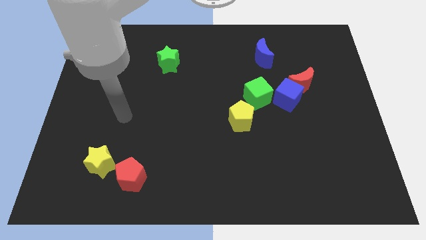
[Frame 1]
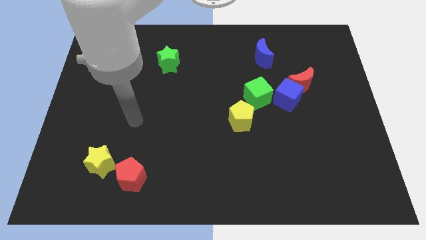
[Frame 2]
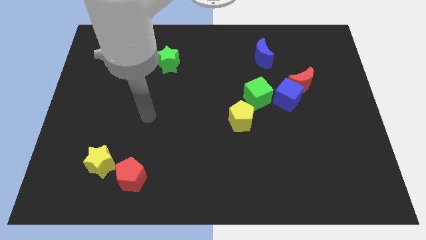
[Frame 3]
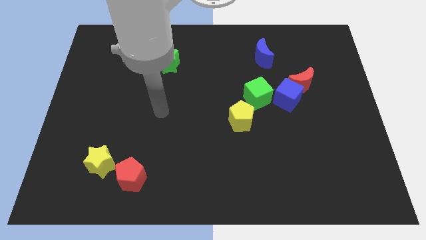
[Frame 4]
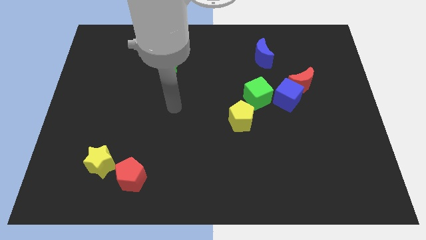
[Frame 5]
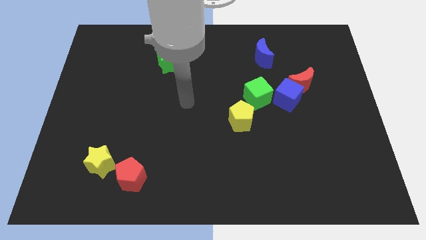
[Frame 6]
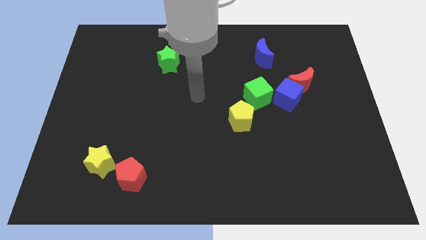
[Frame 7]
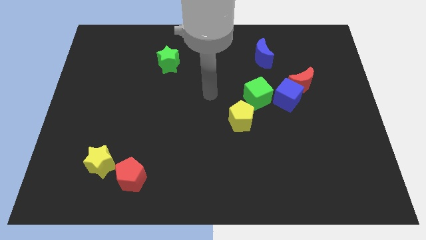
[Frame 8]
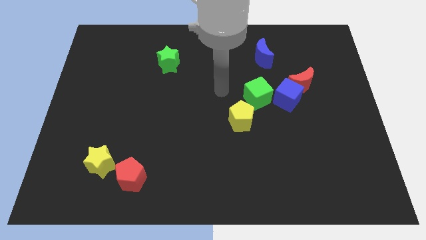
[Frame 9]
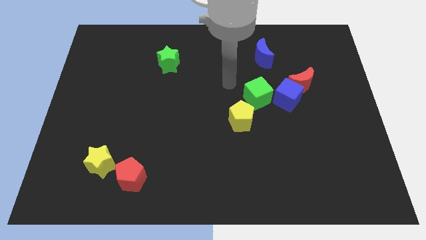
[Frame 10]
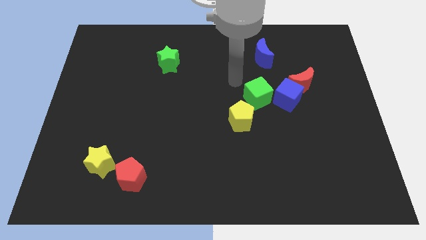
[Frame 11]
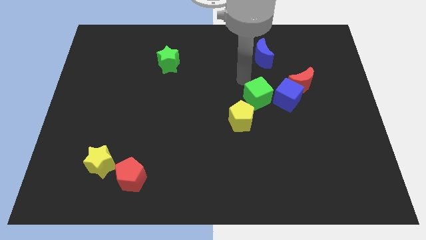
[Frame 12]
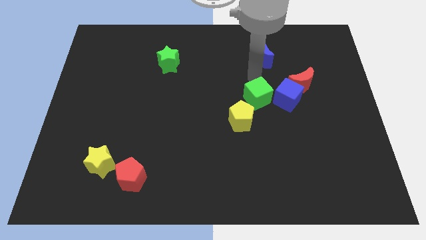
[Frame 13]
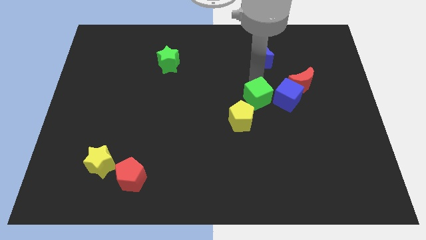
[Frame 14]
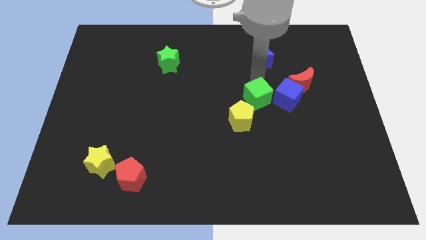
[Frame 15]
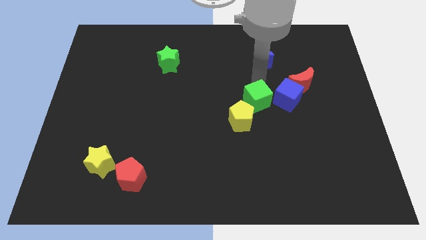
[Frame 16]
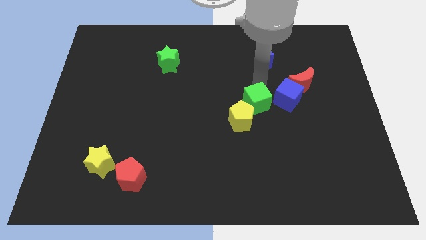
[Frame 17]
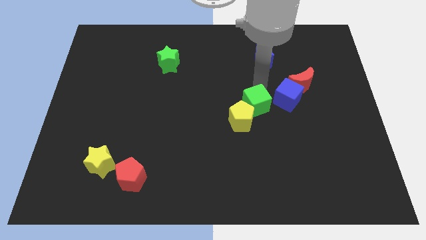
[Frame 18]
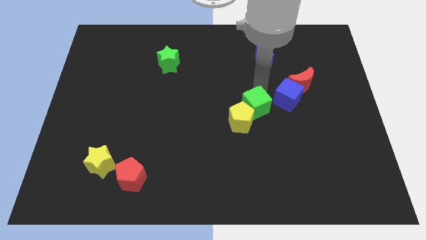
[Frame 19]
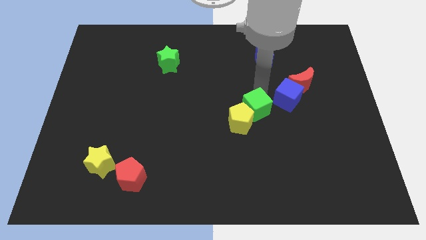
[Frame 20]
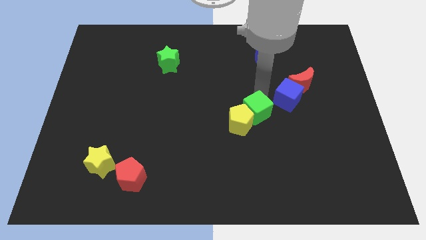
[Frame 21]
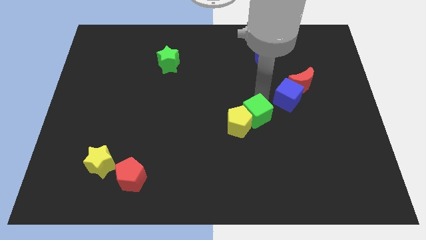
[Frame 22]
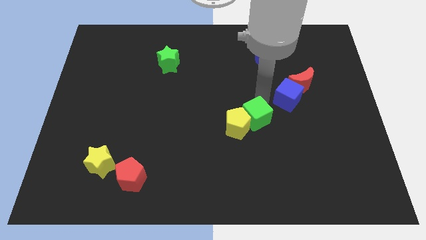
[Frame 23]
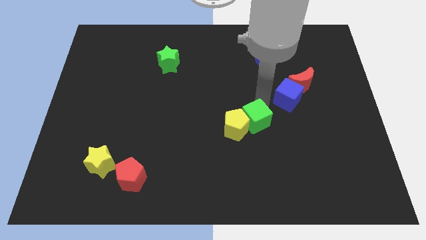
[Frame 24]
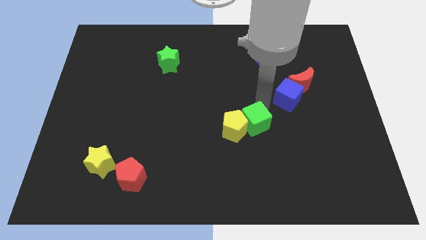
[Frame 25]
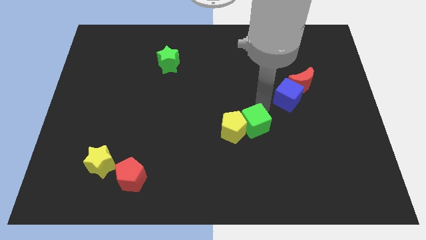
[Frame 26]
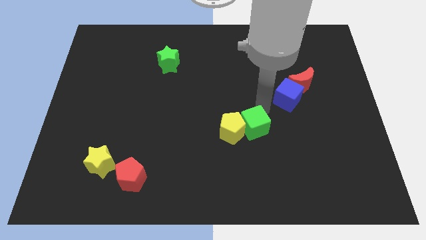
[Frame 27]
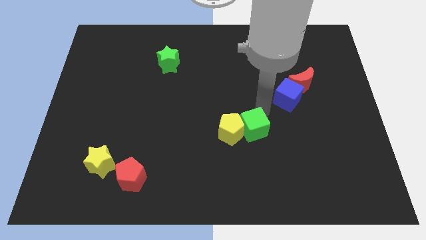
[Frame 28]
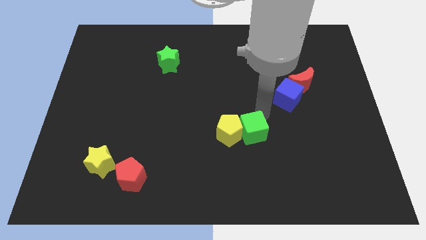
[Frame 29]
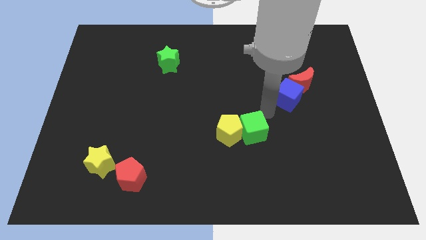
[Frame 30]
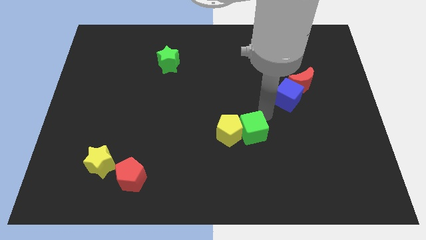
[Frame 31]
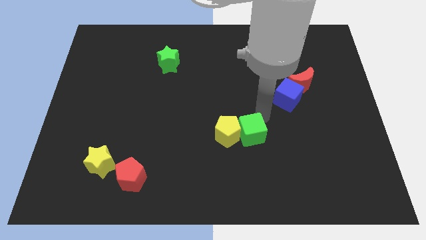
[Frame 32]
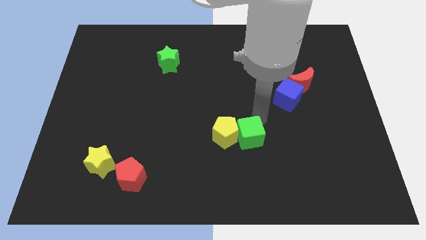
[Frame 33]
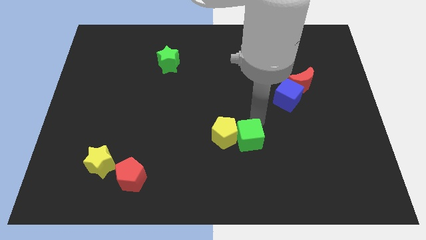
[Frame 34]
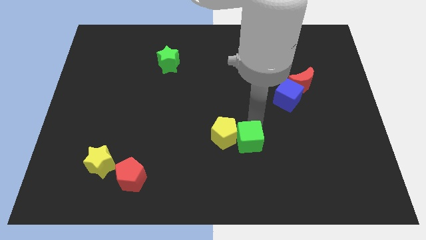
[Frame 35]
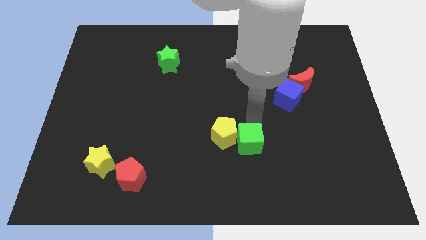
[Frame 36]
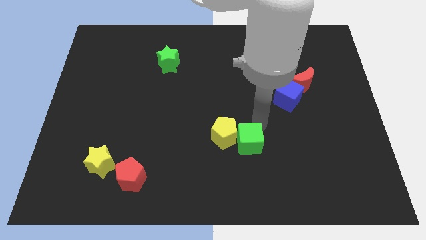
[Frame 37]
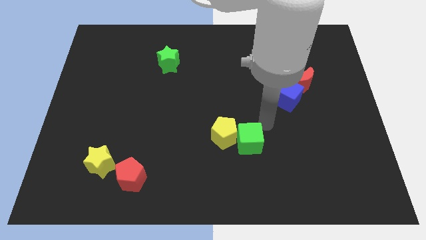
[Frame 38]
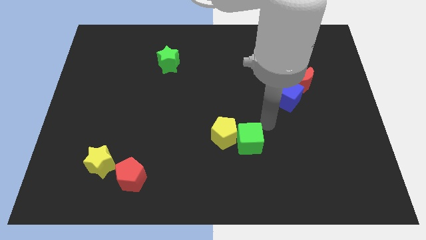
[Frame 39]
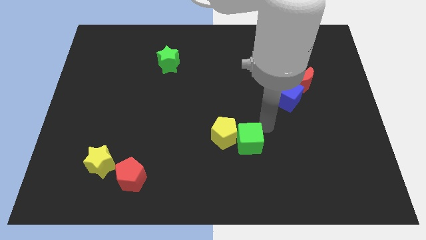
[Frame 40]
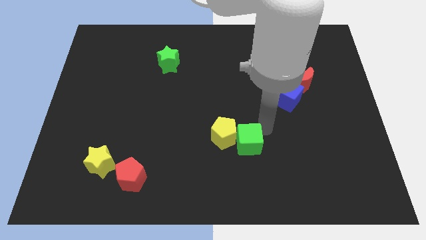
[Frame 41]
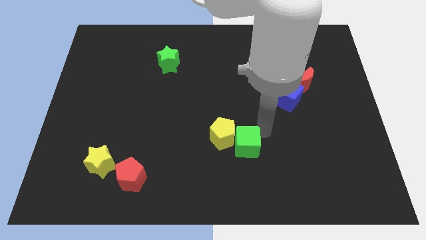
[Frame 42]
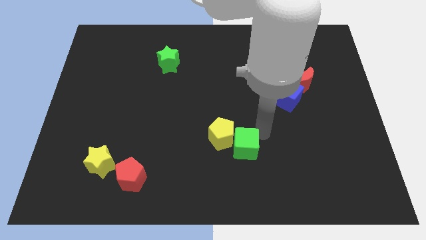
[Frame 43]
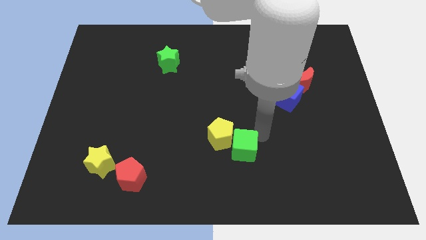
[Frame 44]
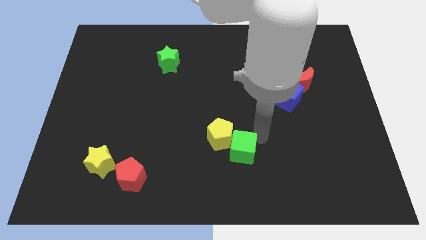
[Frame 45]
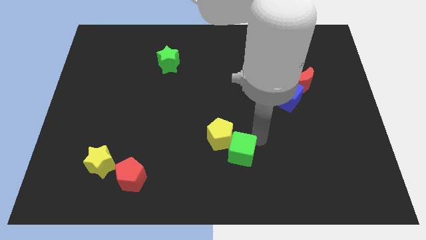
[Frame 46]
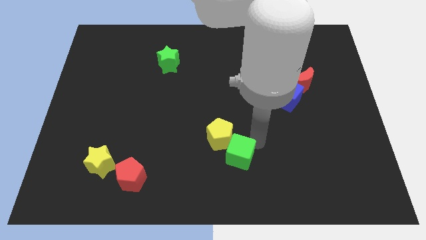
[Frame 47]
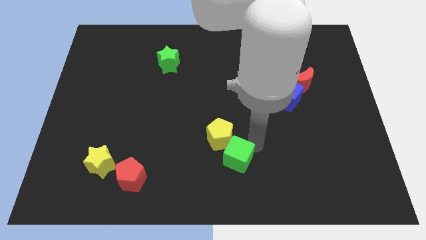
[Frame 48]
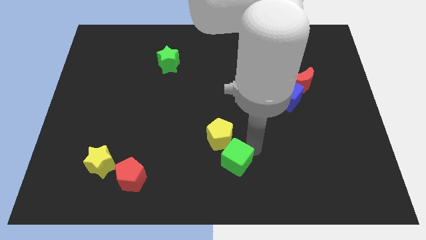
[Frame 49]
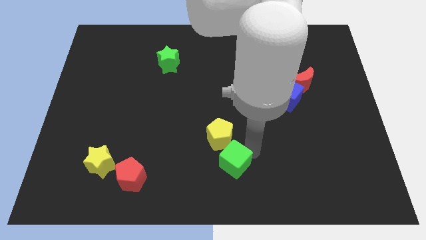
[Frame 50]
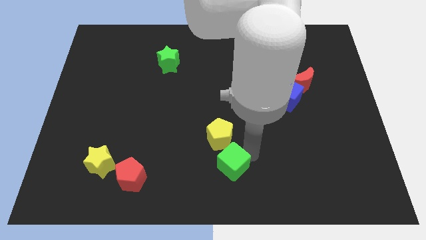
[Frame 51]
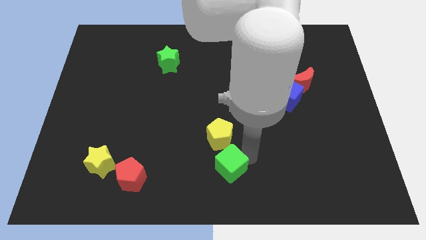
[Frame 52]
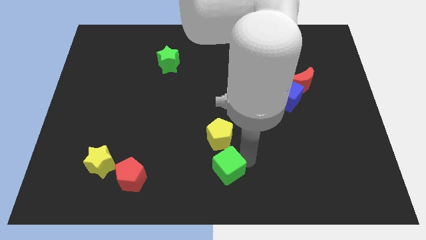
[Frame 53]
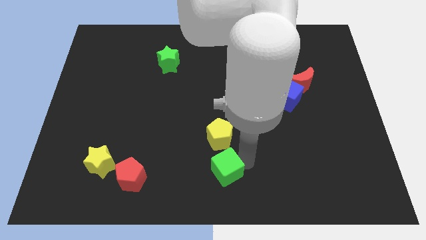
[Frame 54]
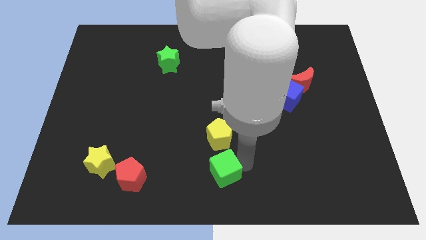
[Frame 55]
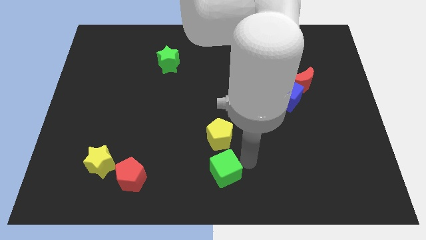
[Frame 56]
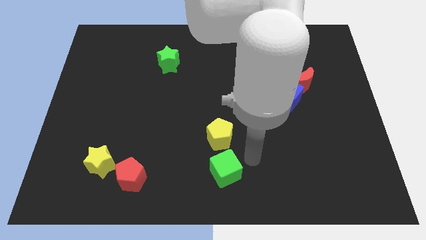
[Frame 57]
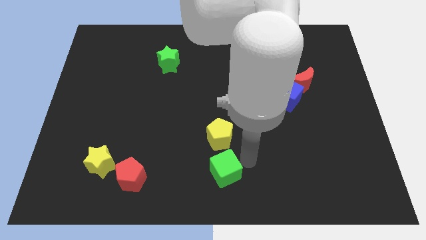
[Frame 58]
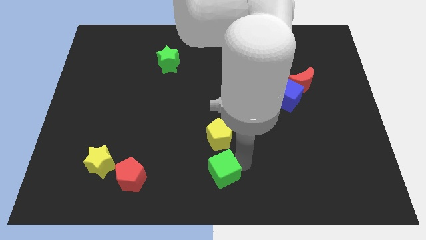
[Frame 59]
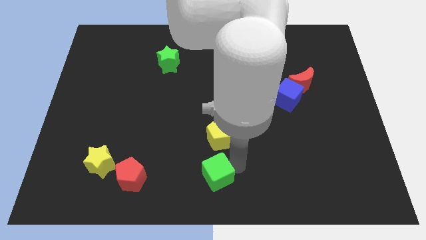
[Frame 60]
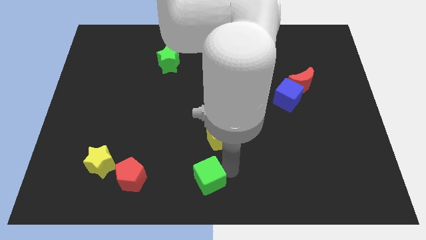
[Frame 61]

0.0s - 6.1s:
push the green cube down and left

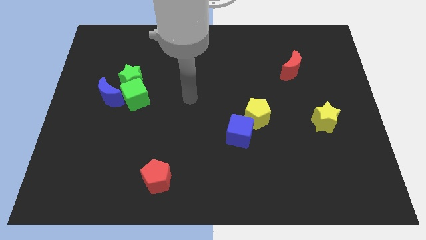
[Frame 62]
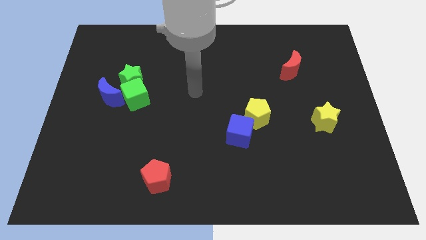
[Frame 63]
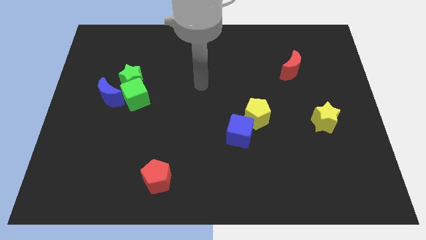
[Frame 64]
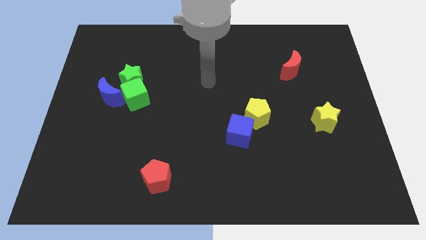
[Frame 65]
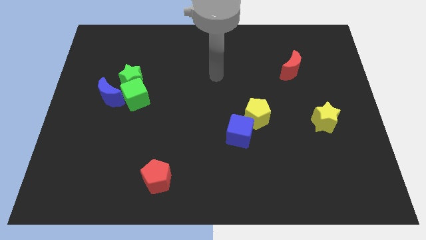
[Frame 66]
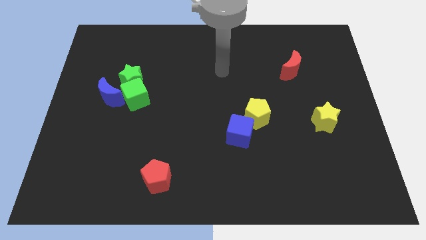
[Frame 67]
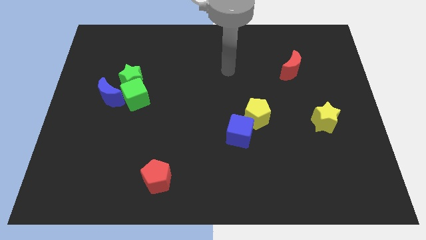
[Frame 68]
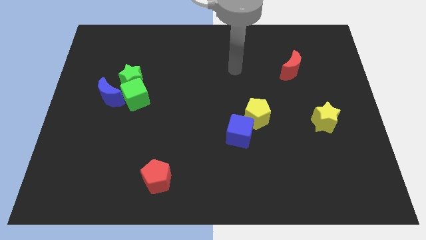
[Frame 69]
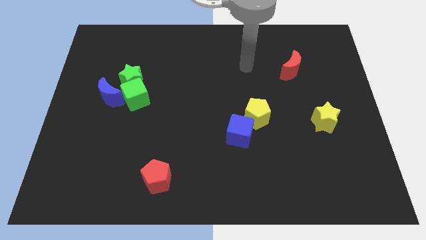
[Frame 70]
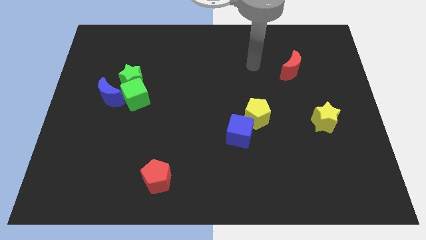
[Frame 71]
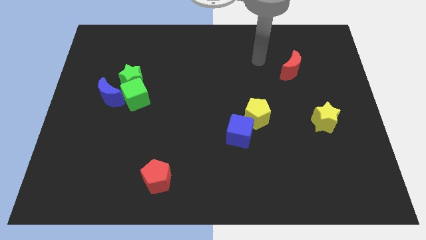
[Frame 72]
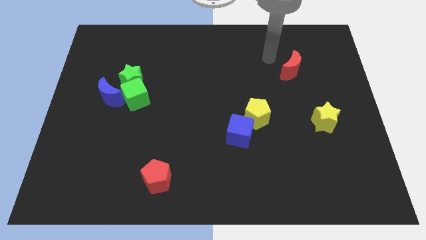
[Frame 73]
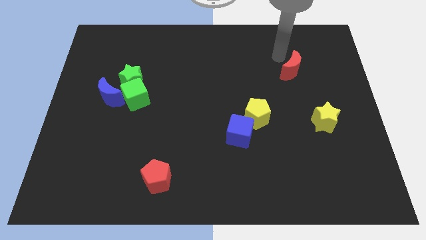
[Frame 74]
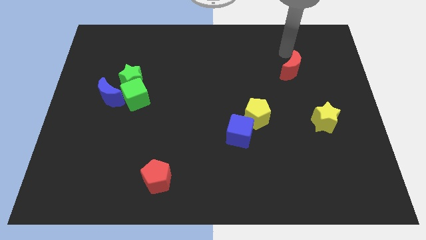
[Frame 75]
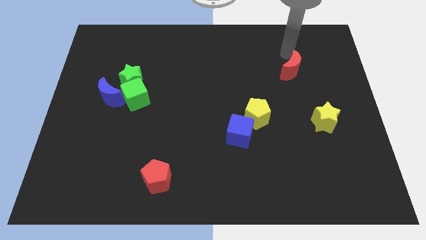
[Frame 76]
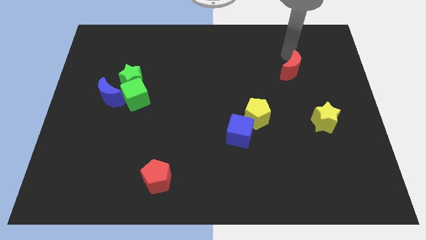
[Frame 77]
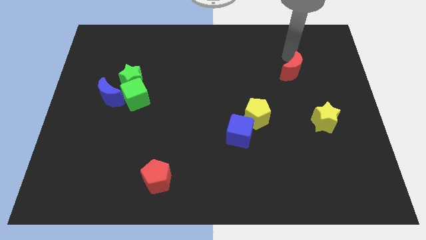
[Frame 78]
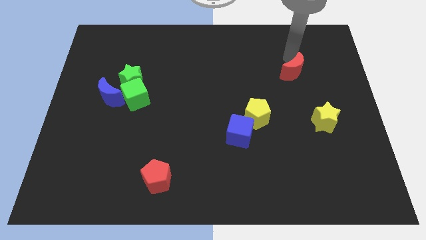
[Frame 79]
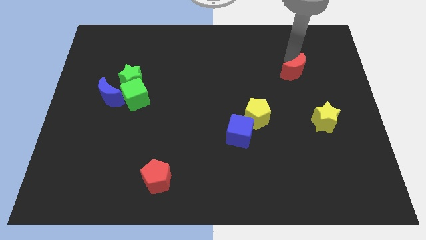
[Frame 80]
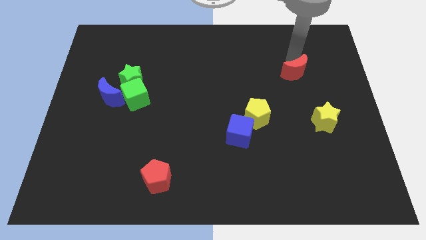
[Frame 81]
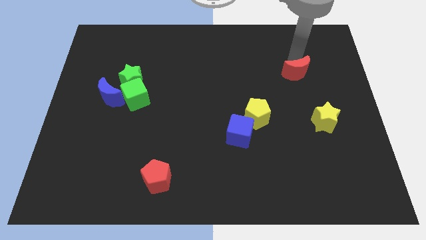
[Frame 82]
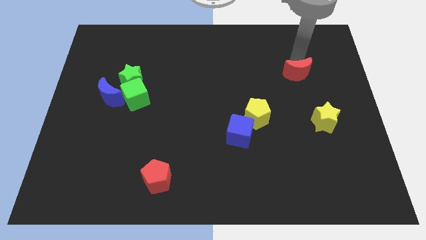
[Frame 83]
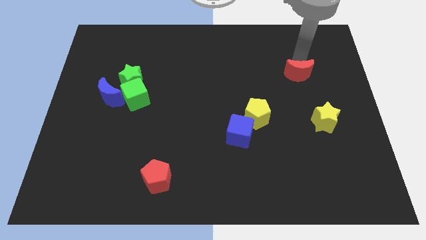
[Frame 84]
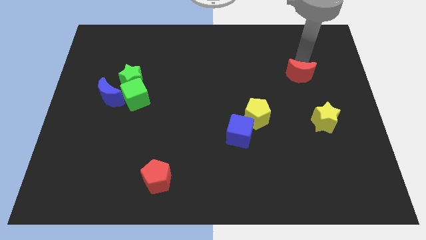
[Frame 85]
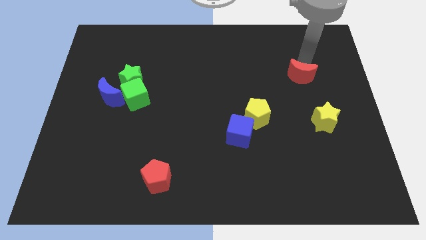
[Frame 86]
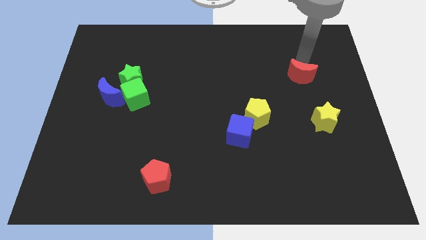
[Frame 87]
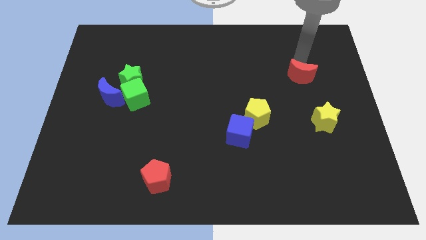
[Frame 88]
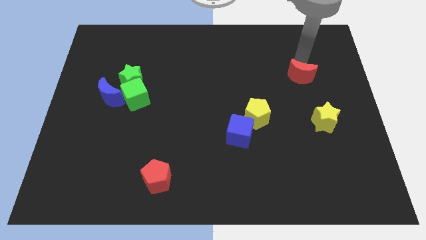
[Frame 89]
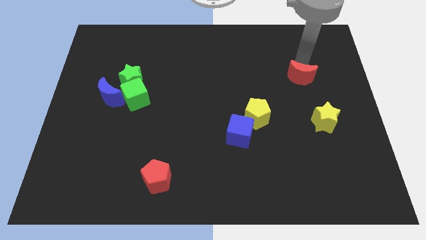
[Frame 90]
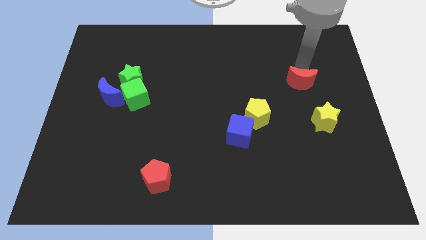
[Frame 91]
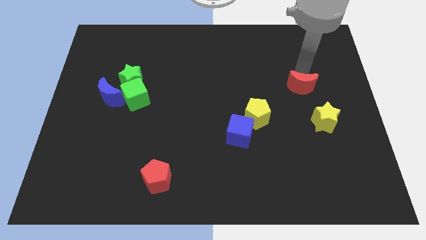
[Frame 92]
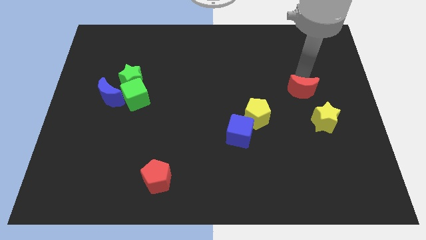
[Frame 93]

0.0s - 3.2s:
push the red moon down a little
